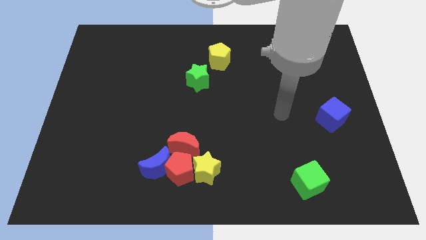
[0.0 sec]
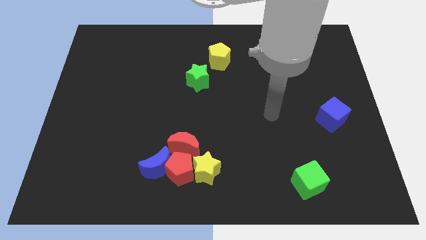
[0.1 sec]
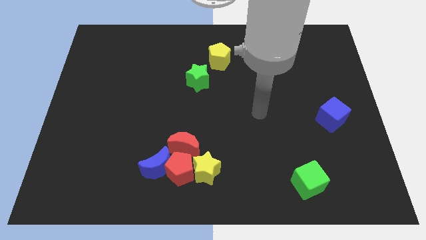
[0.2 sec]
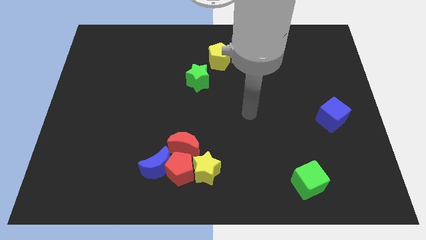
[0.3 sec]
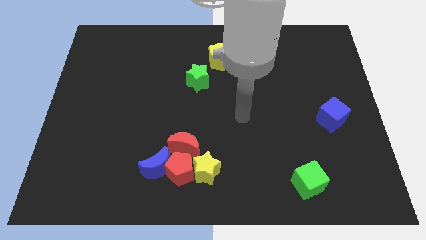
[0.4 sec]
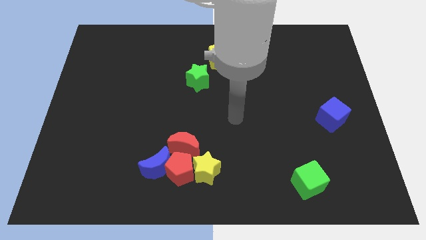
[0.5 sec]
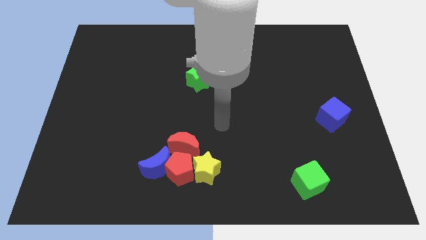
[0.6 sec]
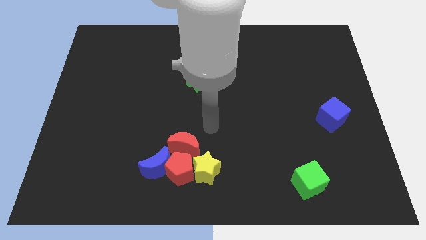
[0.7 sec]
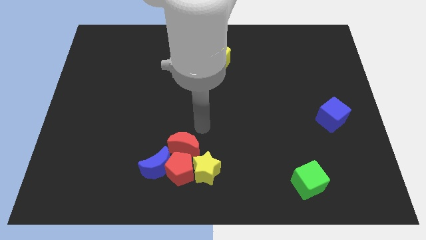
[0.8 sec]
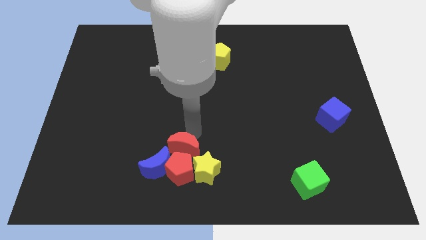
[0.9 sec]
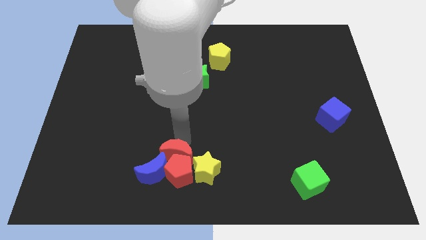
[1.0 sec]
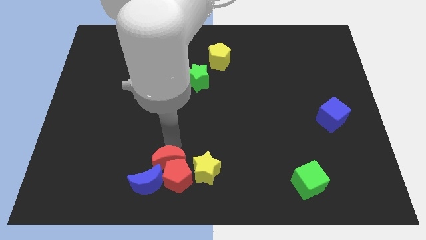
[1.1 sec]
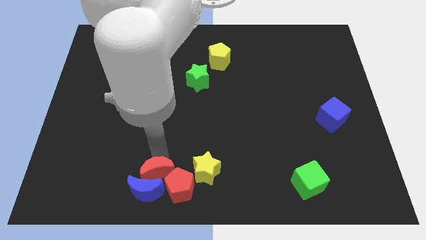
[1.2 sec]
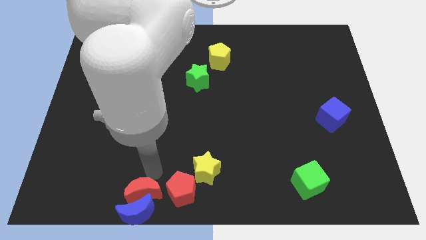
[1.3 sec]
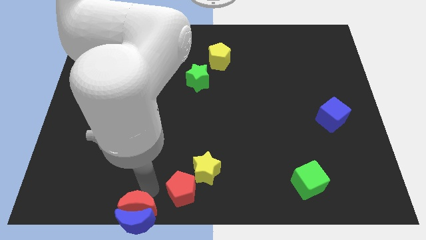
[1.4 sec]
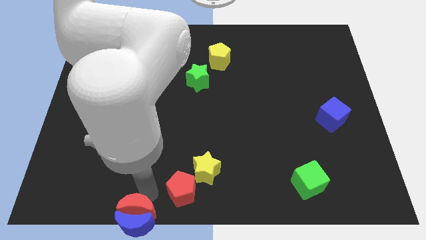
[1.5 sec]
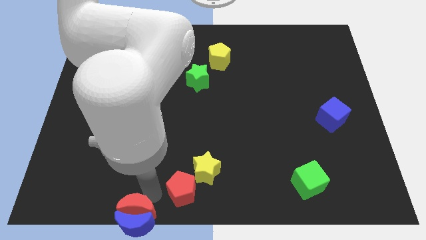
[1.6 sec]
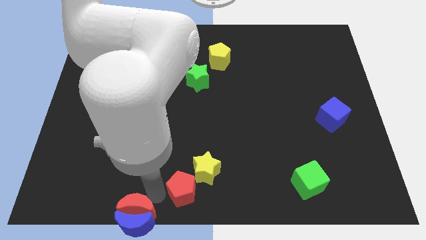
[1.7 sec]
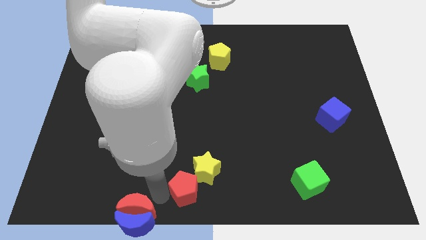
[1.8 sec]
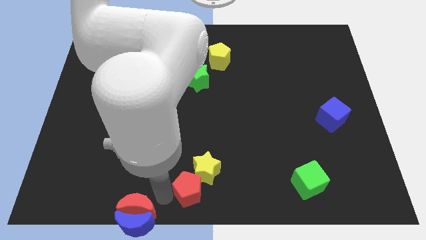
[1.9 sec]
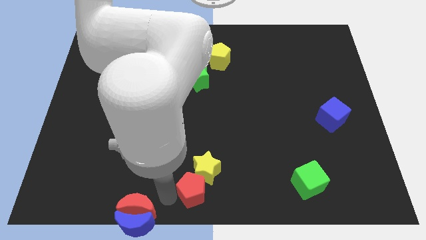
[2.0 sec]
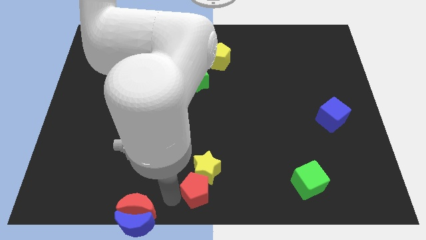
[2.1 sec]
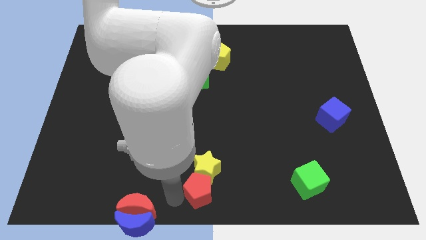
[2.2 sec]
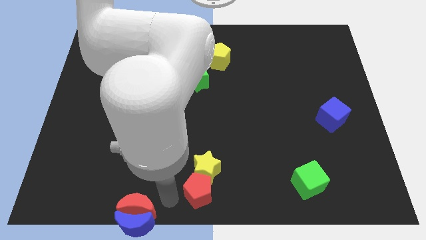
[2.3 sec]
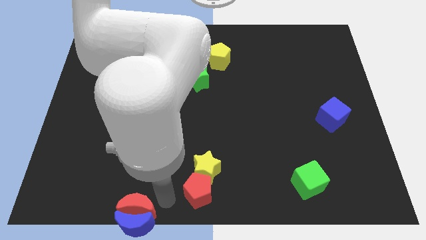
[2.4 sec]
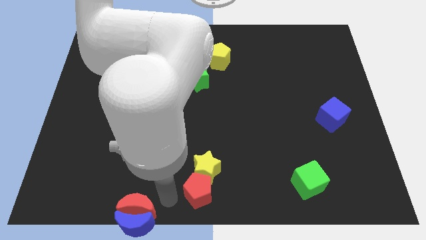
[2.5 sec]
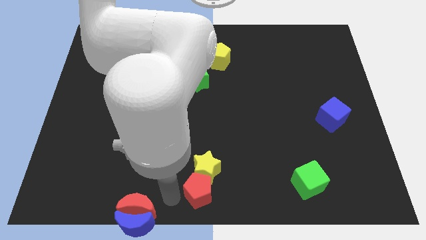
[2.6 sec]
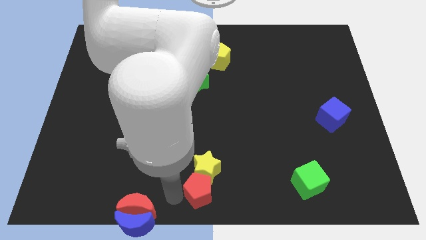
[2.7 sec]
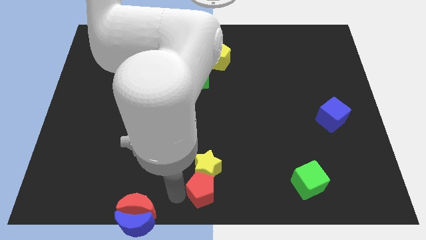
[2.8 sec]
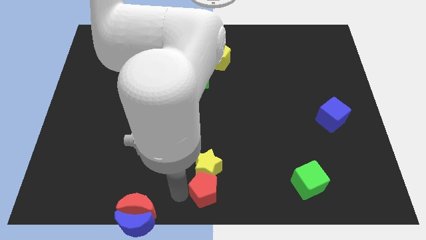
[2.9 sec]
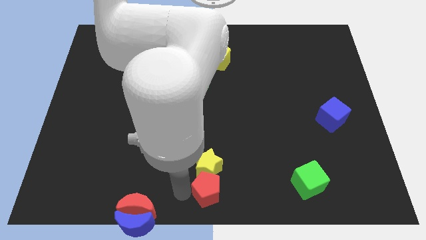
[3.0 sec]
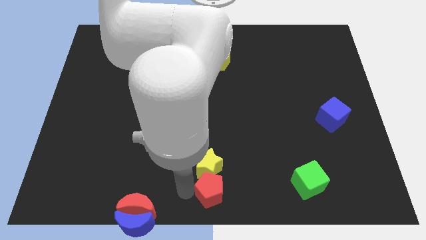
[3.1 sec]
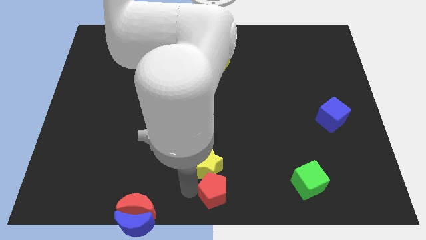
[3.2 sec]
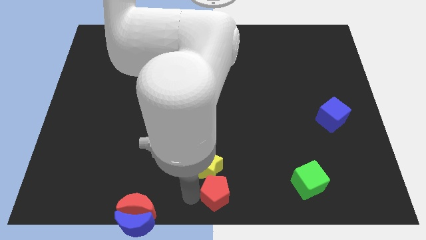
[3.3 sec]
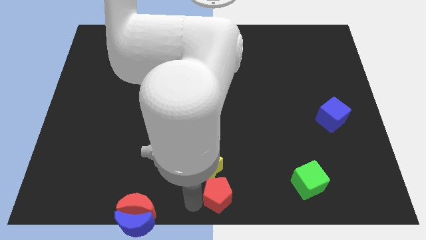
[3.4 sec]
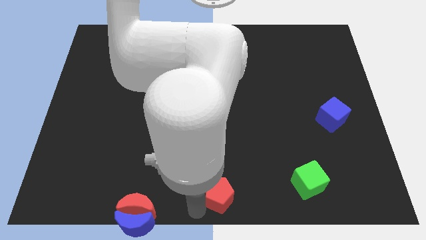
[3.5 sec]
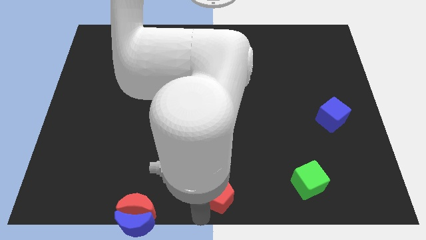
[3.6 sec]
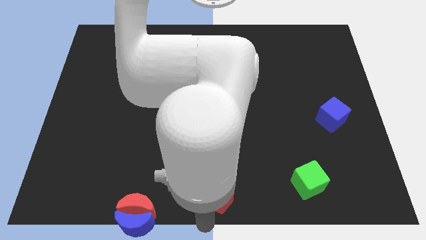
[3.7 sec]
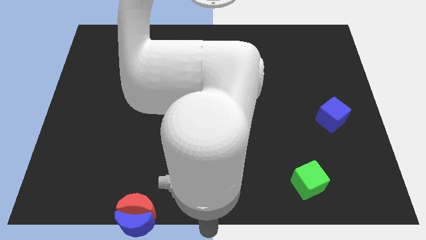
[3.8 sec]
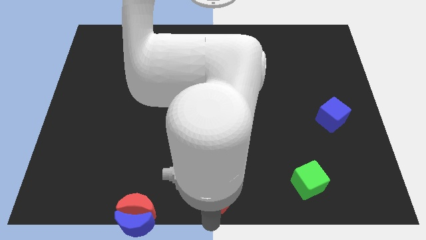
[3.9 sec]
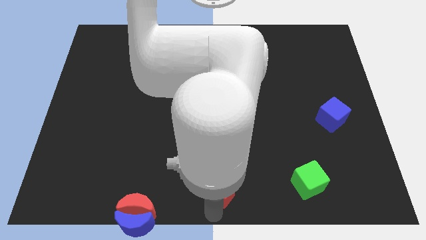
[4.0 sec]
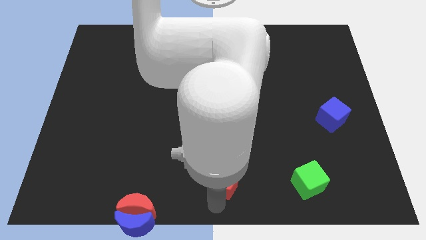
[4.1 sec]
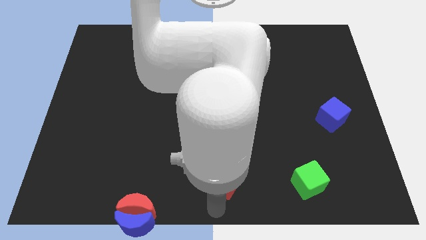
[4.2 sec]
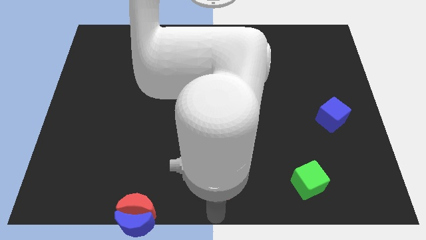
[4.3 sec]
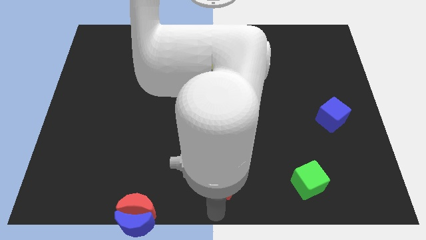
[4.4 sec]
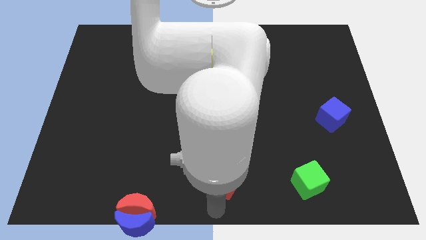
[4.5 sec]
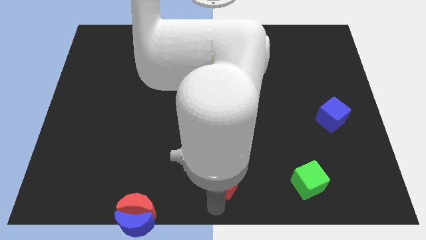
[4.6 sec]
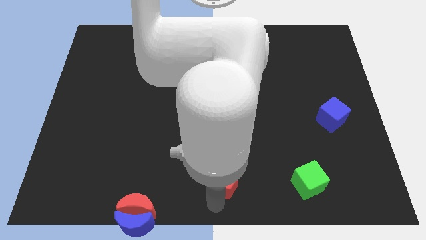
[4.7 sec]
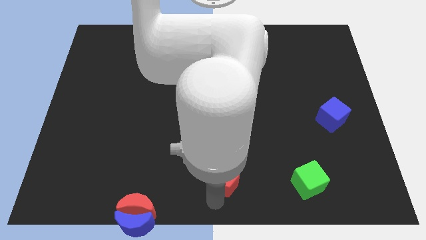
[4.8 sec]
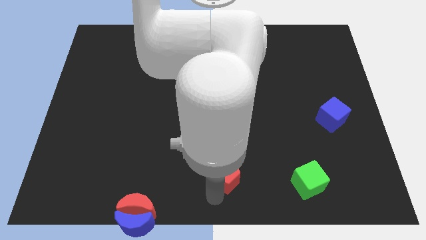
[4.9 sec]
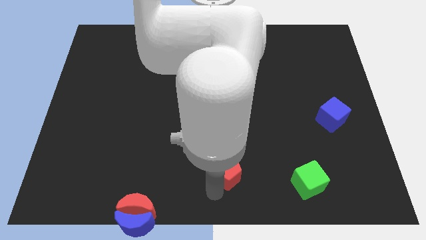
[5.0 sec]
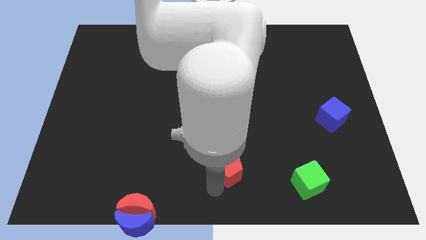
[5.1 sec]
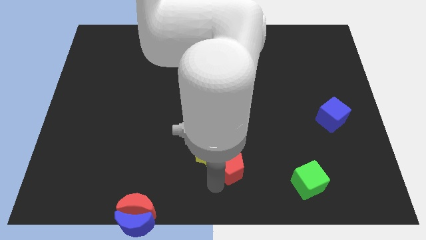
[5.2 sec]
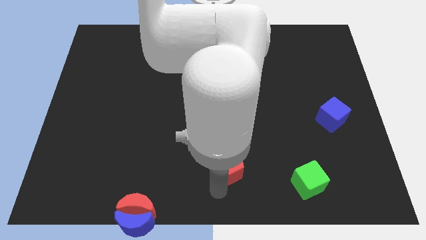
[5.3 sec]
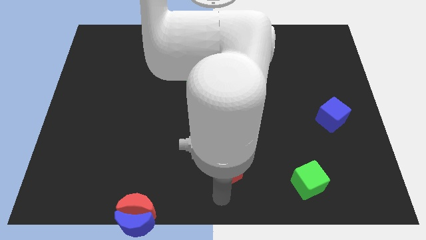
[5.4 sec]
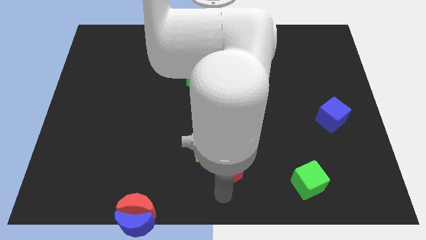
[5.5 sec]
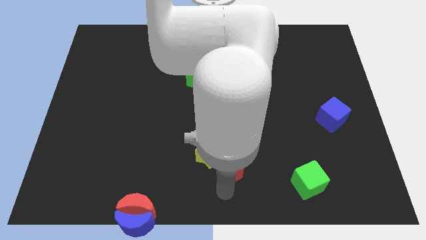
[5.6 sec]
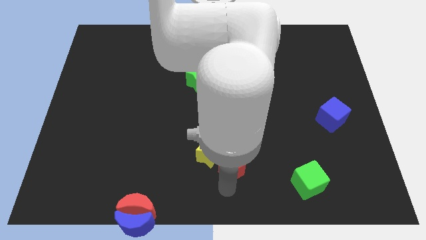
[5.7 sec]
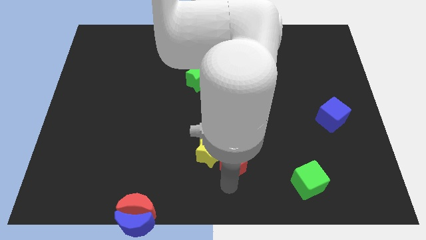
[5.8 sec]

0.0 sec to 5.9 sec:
push the red pentagon upwards and right diagonally somewhat

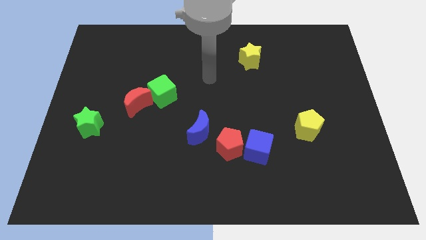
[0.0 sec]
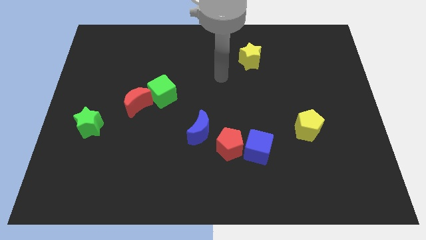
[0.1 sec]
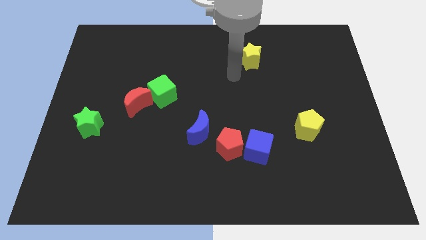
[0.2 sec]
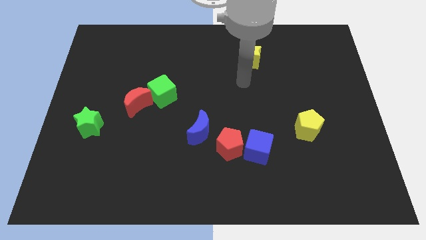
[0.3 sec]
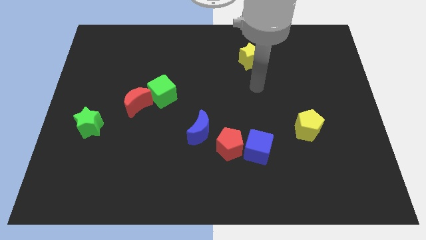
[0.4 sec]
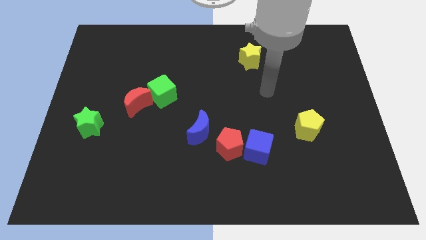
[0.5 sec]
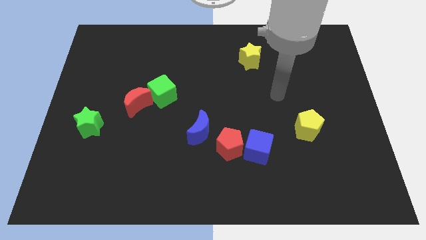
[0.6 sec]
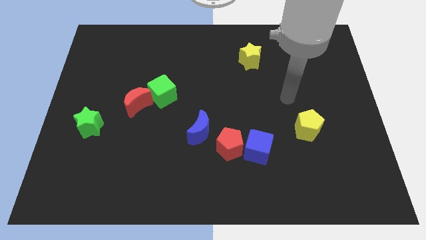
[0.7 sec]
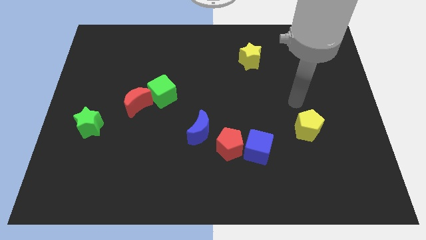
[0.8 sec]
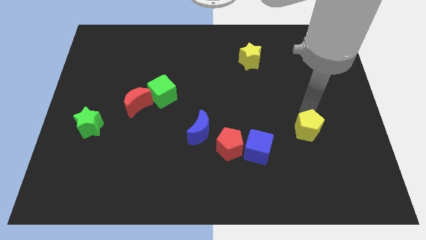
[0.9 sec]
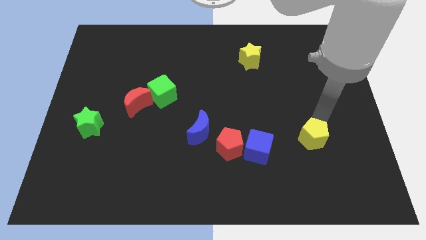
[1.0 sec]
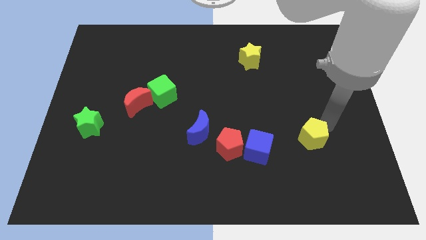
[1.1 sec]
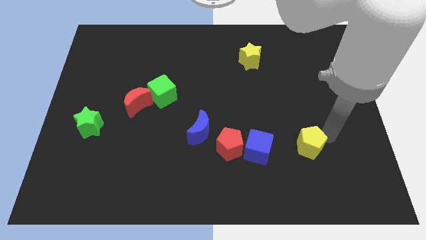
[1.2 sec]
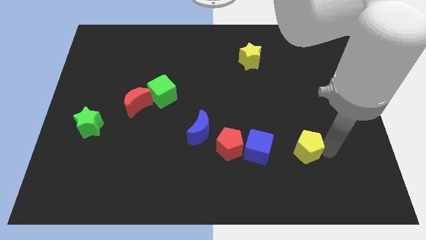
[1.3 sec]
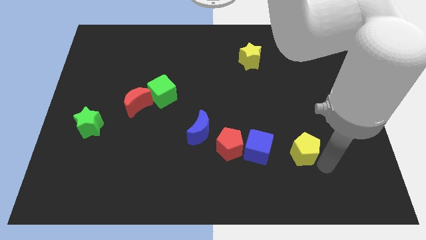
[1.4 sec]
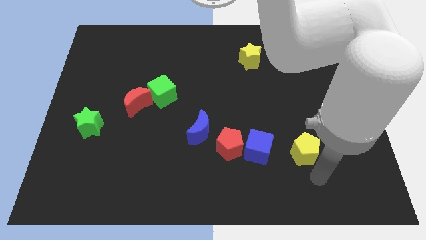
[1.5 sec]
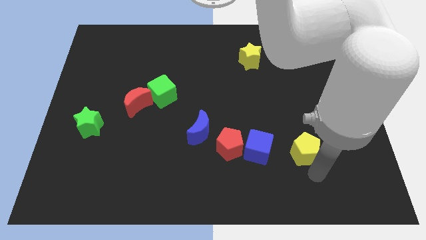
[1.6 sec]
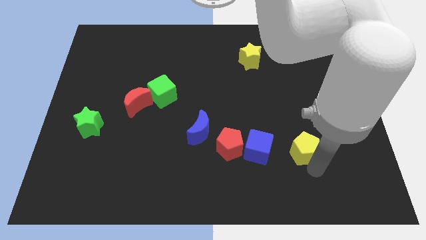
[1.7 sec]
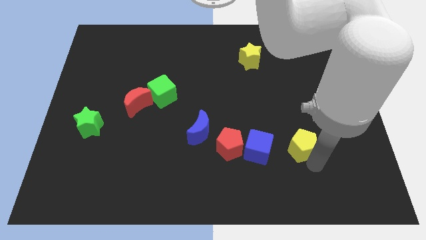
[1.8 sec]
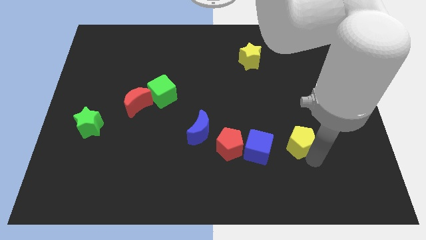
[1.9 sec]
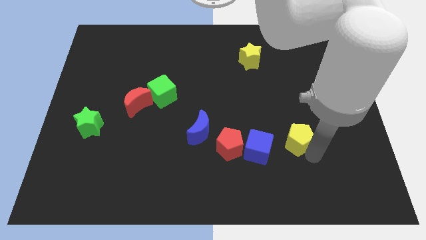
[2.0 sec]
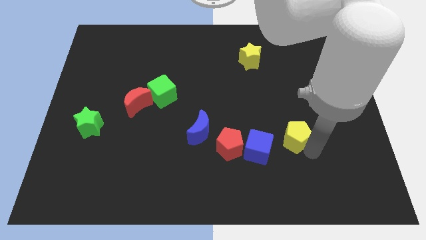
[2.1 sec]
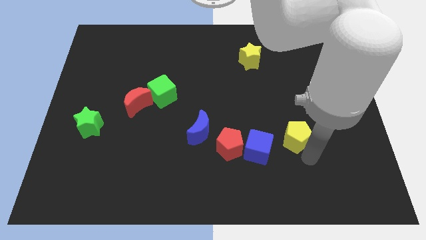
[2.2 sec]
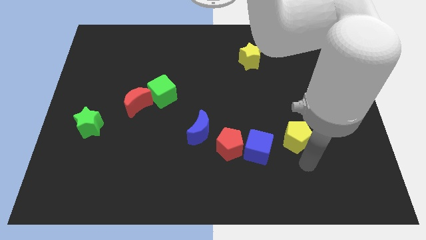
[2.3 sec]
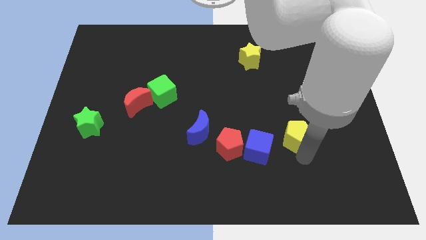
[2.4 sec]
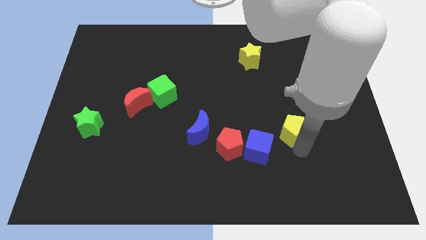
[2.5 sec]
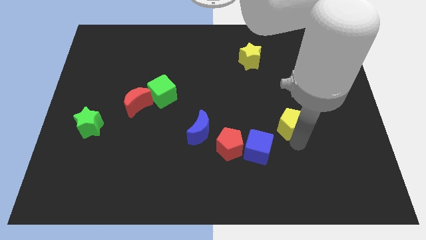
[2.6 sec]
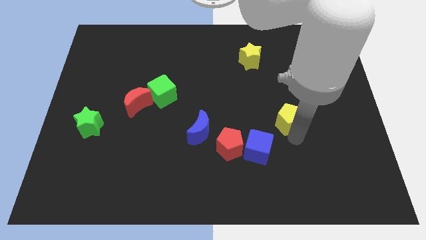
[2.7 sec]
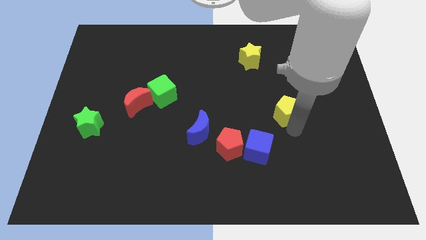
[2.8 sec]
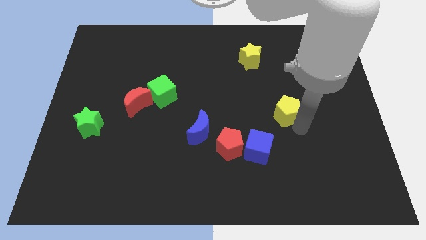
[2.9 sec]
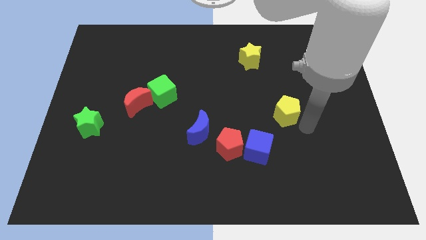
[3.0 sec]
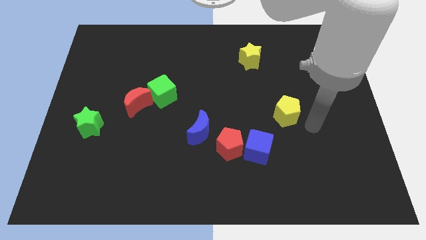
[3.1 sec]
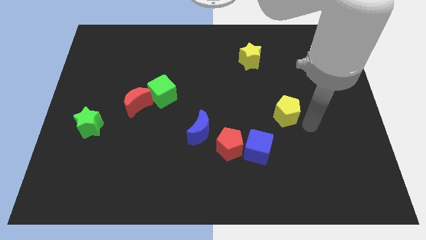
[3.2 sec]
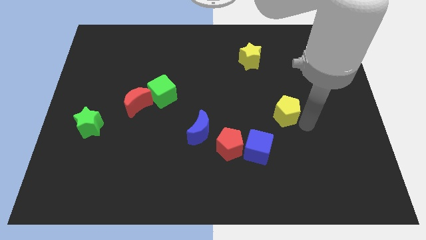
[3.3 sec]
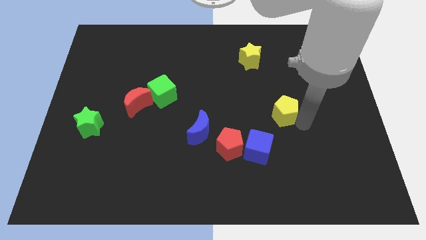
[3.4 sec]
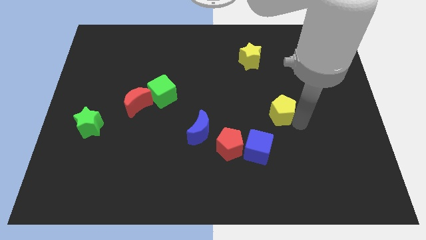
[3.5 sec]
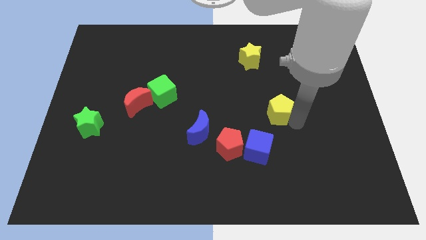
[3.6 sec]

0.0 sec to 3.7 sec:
move the yellow pentagon a little diagonally upwards and left
